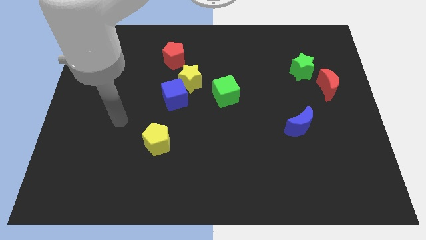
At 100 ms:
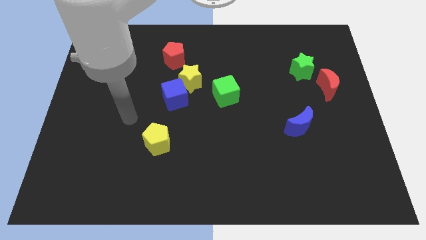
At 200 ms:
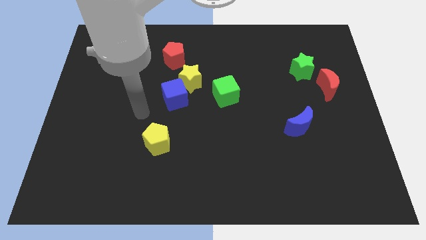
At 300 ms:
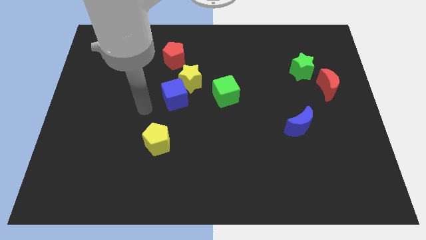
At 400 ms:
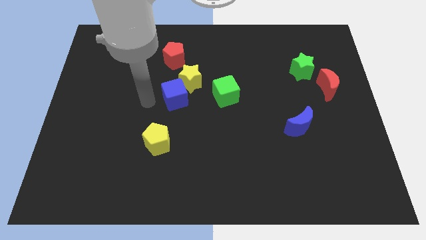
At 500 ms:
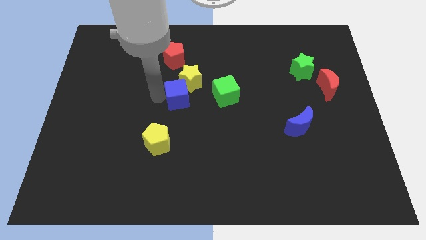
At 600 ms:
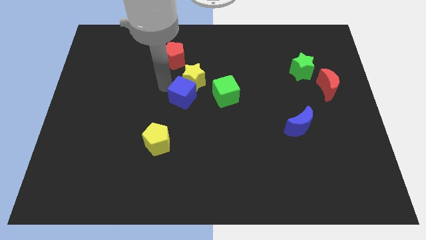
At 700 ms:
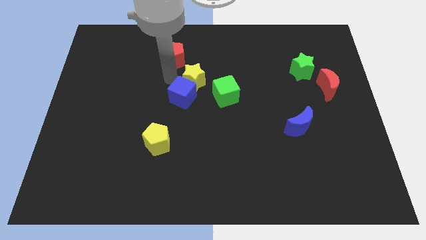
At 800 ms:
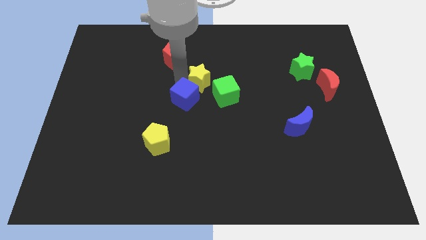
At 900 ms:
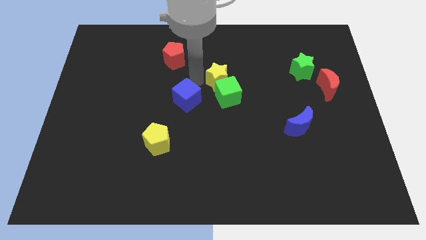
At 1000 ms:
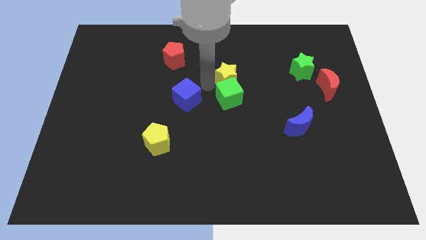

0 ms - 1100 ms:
move the blue cube away from the yellow star

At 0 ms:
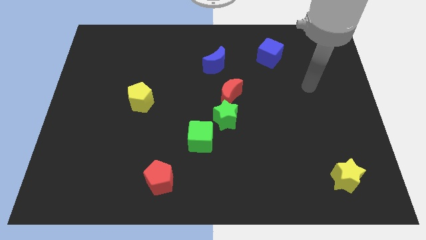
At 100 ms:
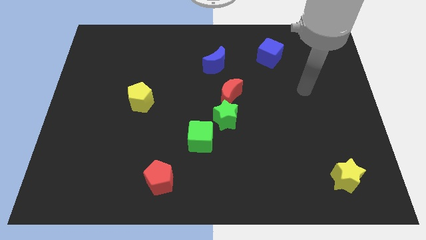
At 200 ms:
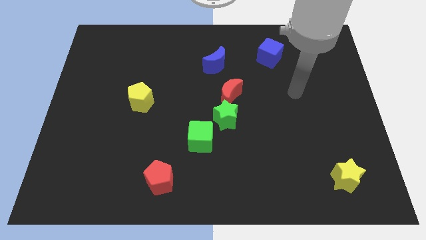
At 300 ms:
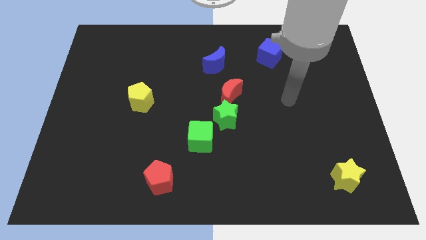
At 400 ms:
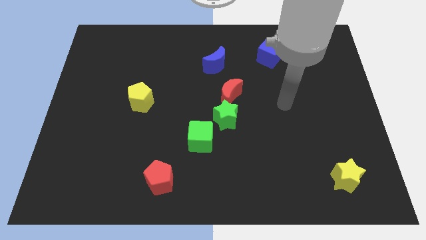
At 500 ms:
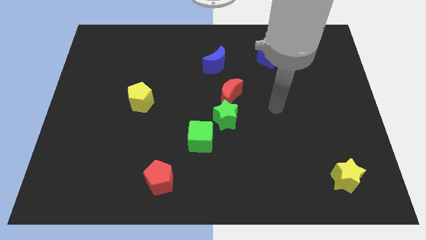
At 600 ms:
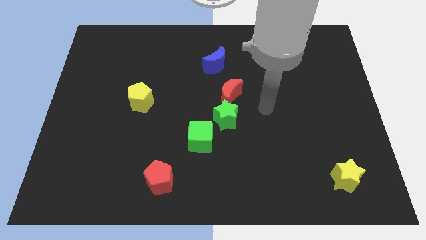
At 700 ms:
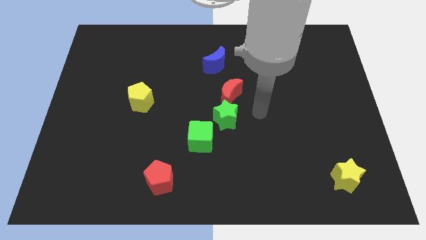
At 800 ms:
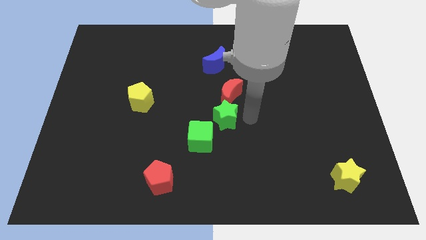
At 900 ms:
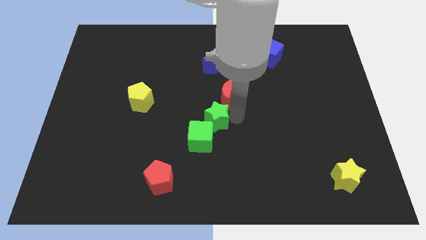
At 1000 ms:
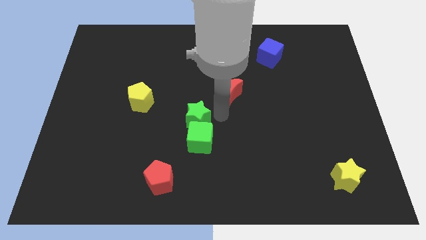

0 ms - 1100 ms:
pull the red moon apart from the green star

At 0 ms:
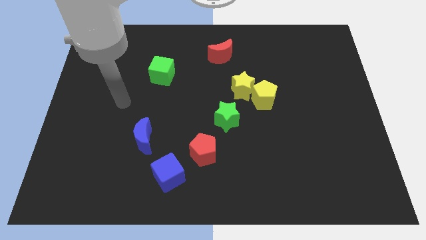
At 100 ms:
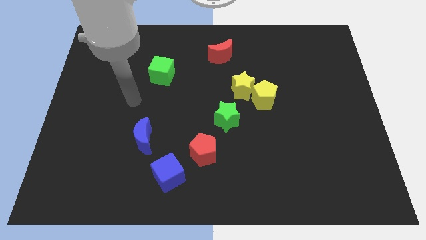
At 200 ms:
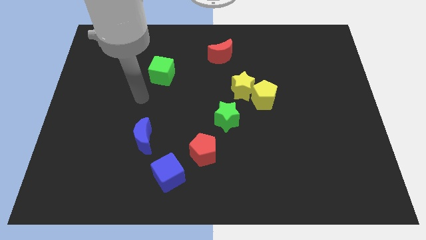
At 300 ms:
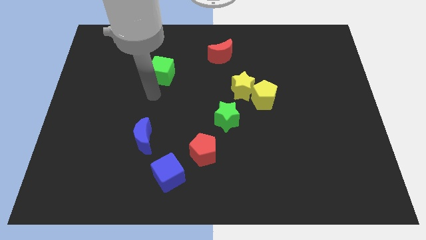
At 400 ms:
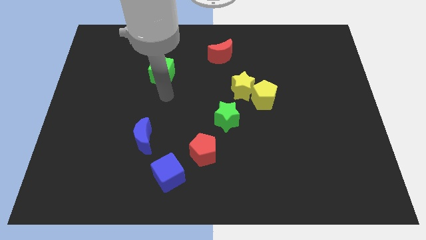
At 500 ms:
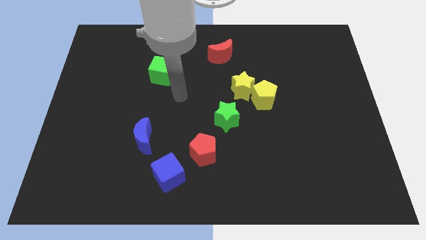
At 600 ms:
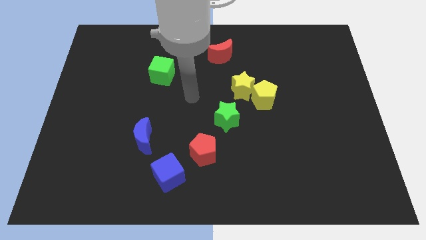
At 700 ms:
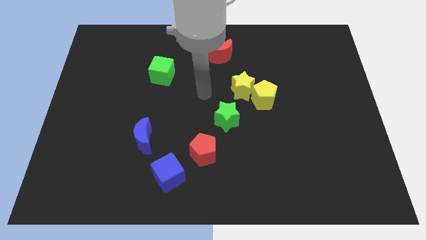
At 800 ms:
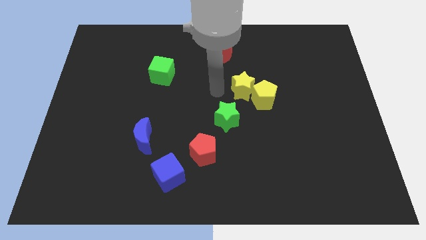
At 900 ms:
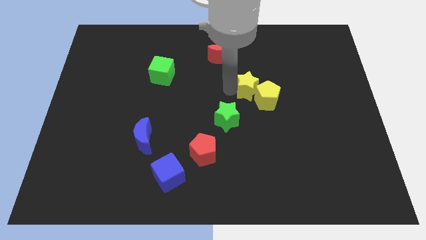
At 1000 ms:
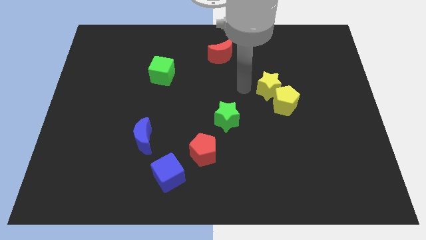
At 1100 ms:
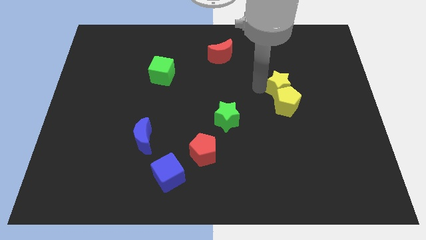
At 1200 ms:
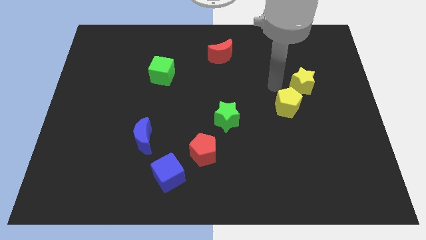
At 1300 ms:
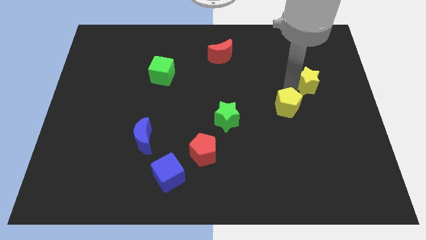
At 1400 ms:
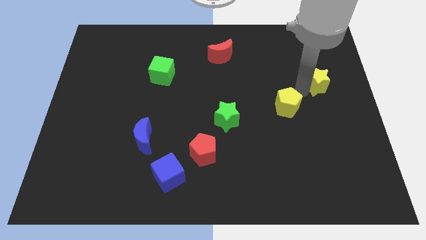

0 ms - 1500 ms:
separate the yellow pentagon from the yellow star

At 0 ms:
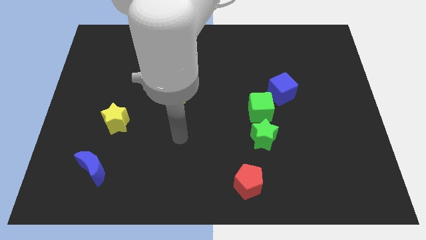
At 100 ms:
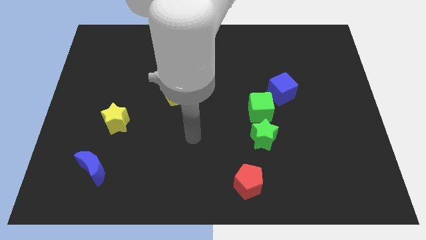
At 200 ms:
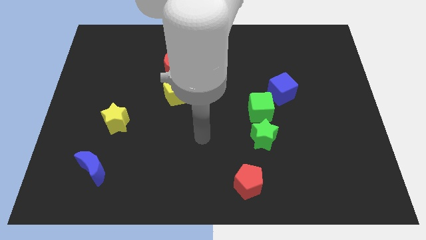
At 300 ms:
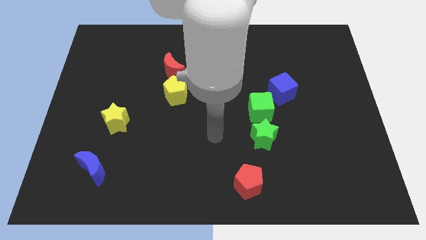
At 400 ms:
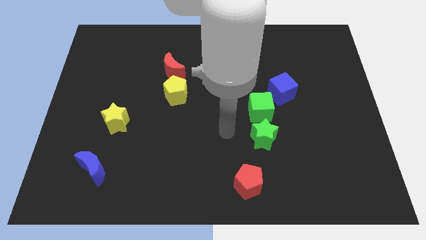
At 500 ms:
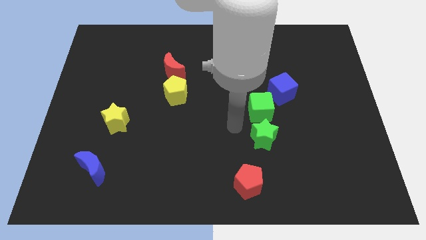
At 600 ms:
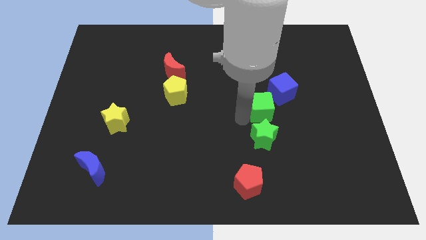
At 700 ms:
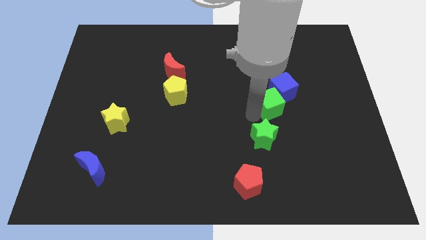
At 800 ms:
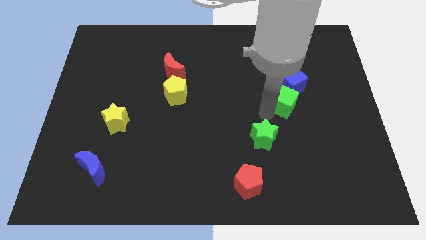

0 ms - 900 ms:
pull the green star apart from the green cube

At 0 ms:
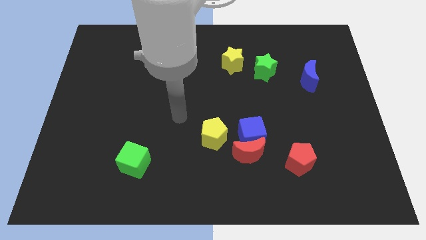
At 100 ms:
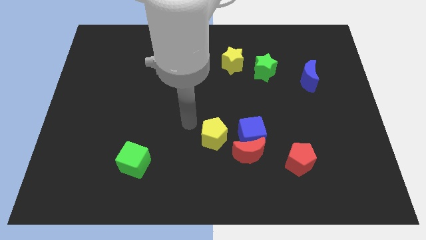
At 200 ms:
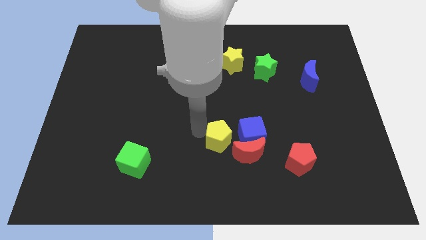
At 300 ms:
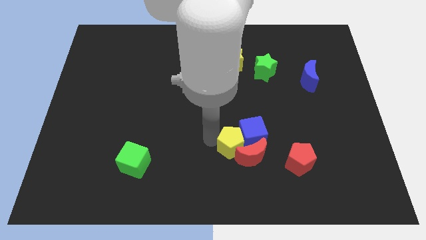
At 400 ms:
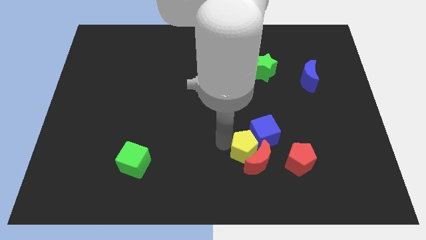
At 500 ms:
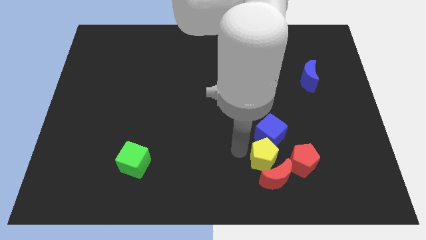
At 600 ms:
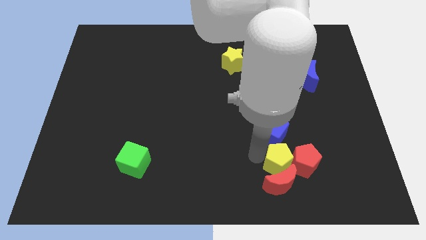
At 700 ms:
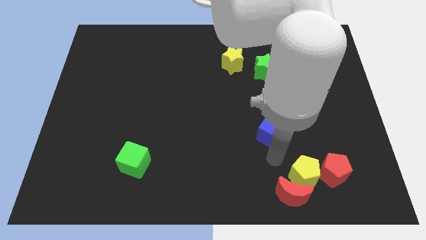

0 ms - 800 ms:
separate the blue cube from the red moon and yellow pentagon

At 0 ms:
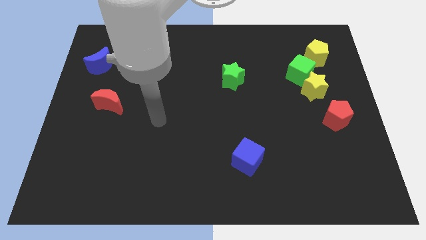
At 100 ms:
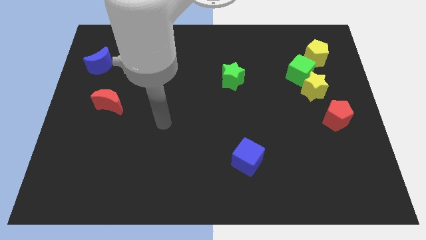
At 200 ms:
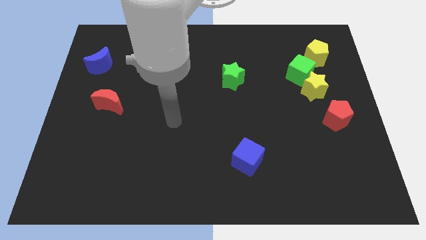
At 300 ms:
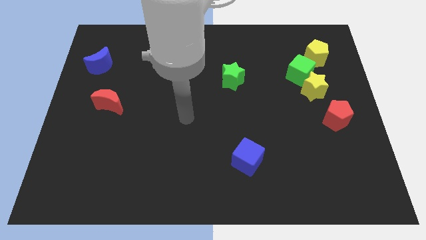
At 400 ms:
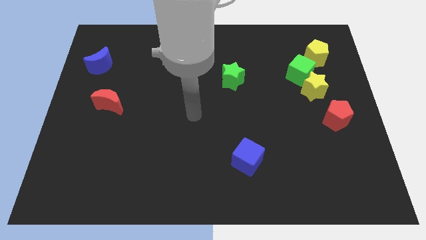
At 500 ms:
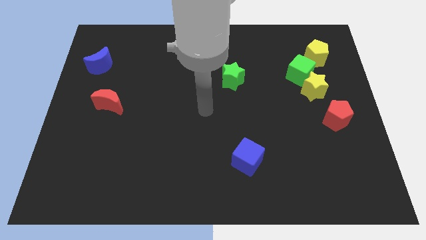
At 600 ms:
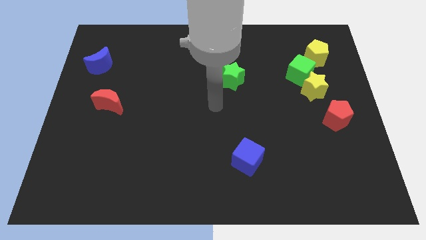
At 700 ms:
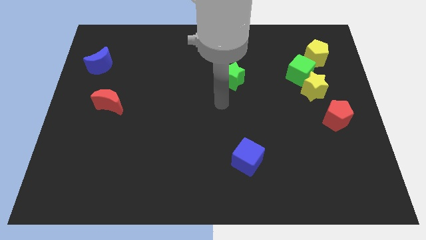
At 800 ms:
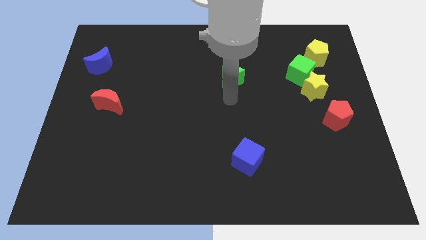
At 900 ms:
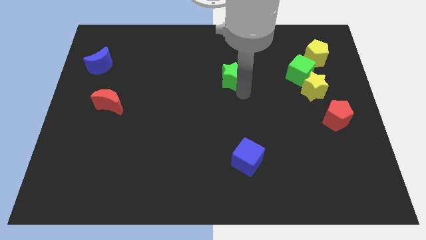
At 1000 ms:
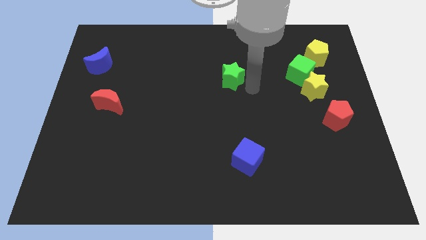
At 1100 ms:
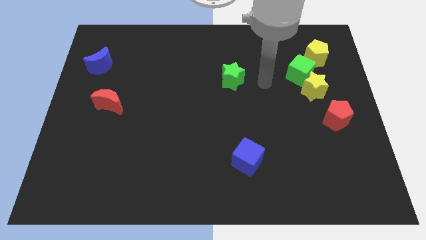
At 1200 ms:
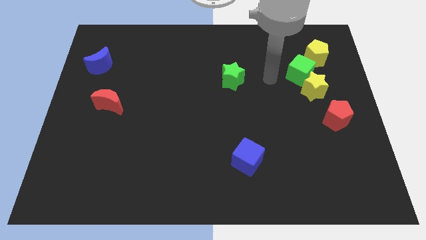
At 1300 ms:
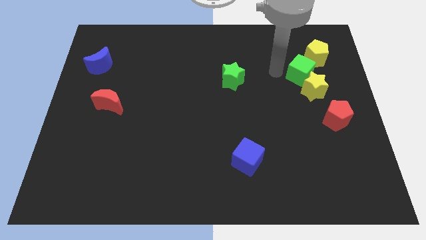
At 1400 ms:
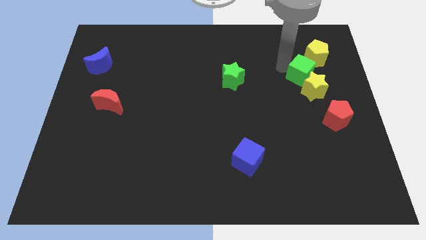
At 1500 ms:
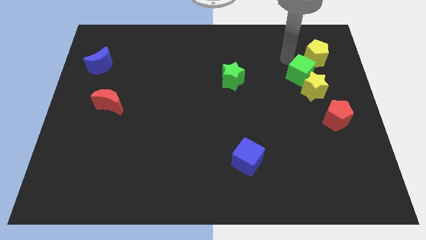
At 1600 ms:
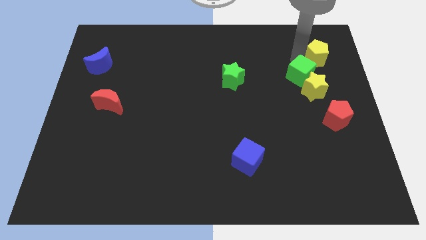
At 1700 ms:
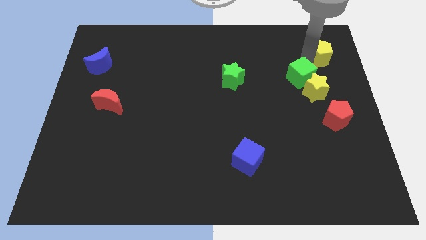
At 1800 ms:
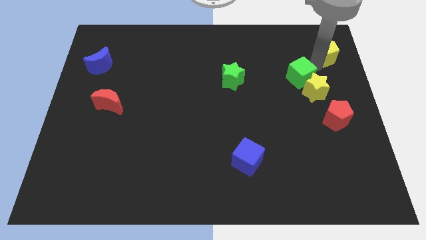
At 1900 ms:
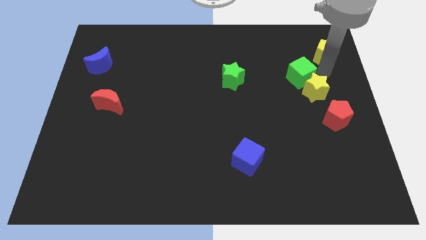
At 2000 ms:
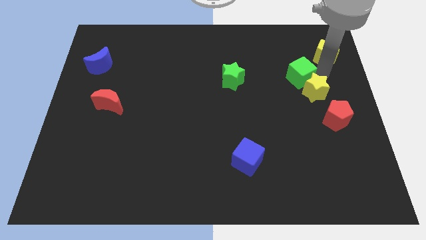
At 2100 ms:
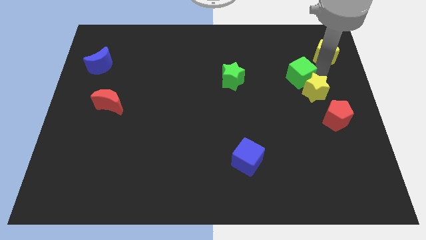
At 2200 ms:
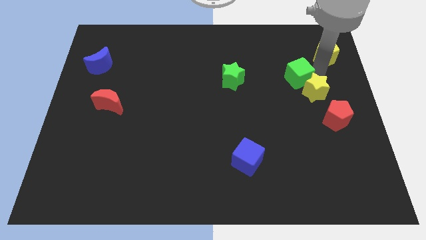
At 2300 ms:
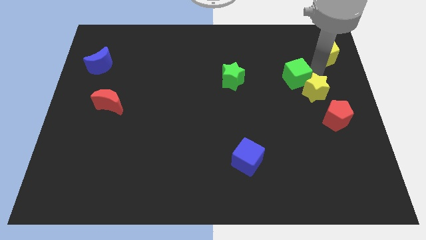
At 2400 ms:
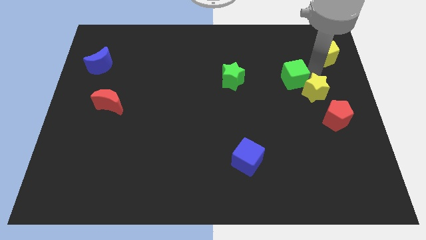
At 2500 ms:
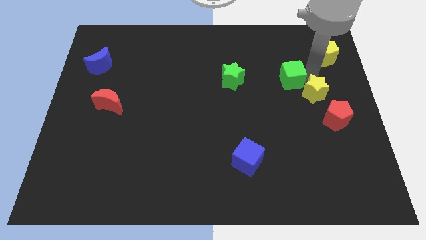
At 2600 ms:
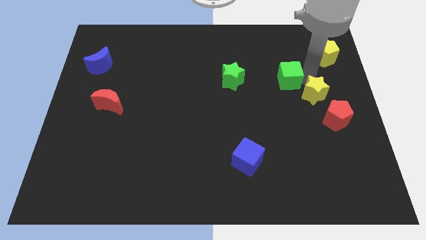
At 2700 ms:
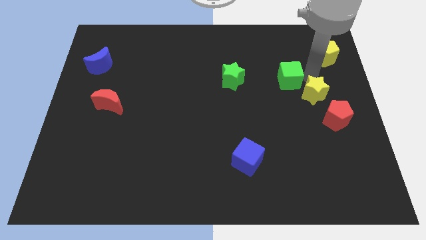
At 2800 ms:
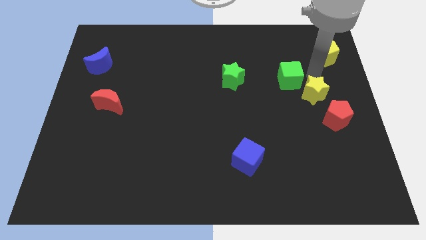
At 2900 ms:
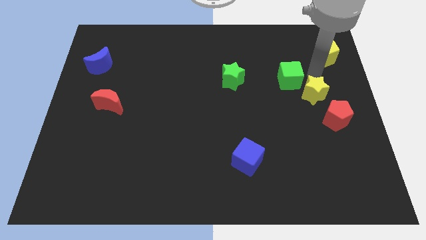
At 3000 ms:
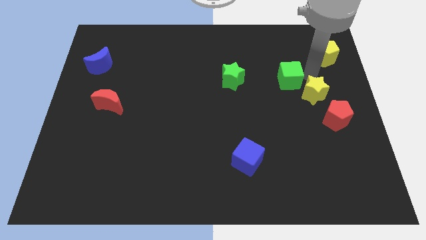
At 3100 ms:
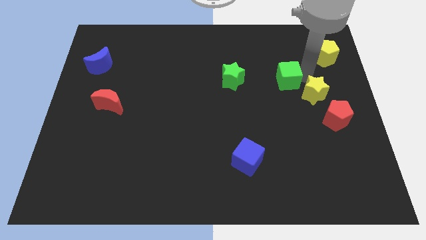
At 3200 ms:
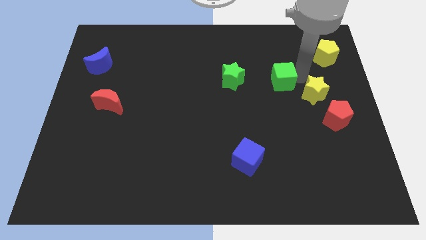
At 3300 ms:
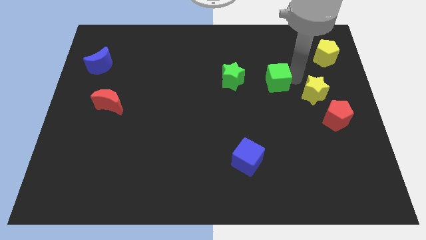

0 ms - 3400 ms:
move the green cube away from the yellow star and yellow pentagon

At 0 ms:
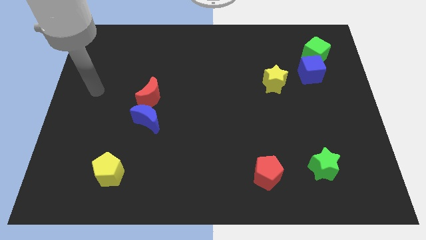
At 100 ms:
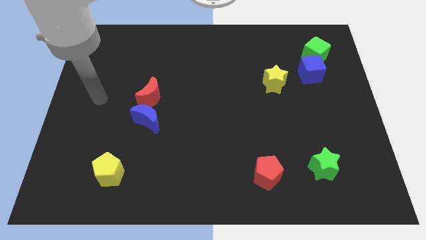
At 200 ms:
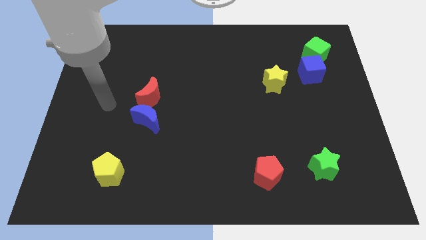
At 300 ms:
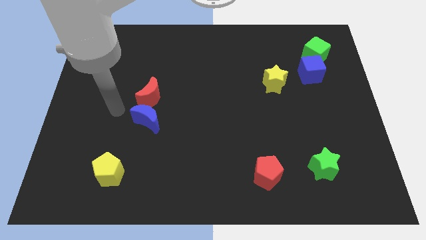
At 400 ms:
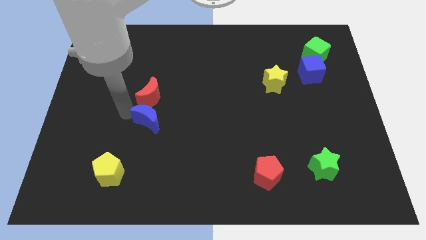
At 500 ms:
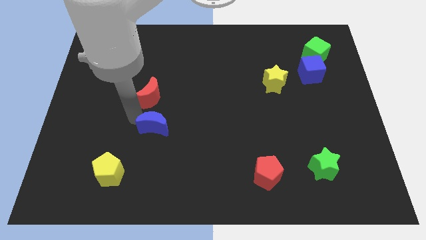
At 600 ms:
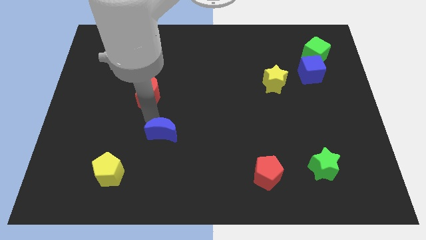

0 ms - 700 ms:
move the red moon away from the blue moon
